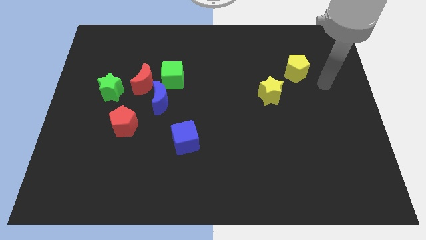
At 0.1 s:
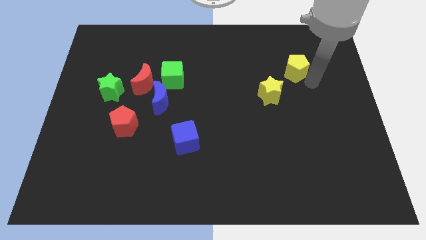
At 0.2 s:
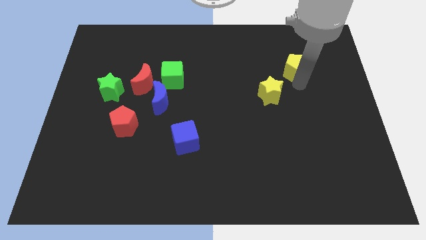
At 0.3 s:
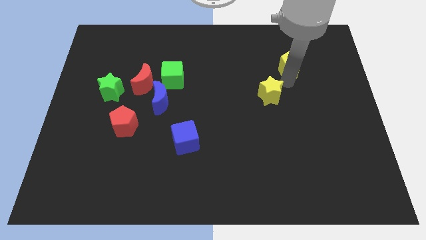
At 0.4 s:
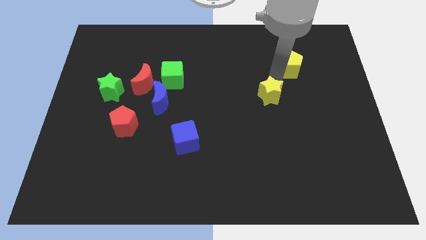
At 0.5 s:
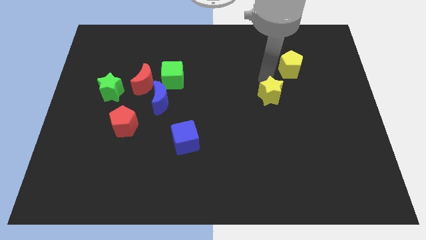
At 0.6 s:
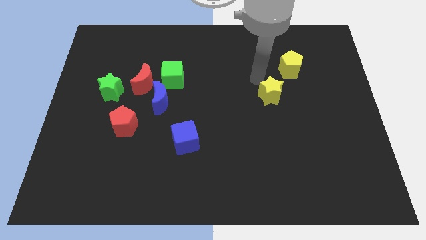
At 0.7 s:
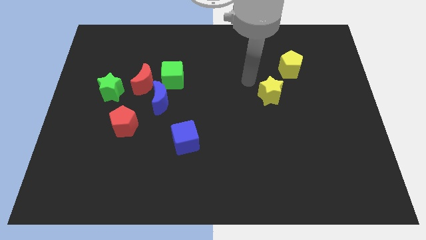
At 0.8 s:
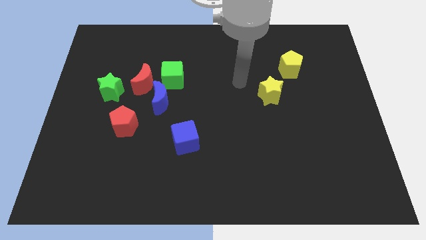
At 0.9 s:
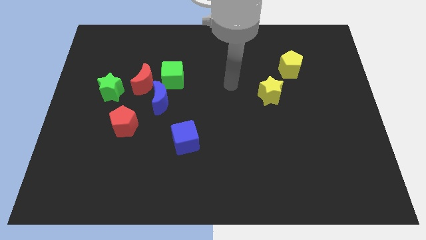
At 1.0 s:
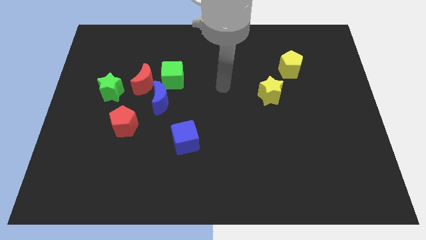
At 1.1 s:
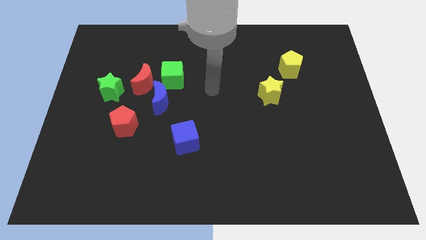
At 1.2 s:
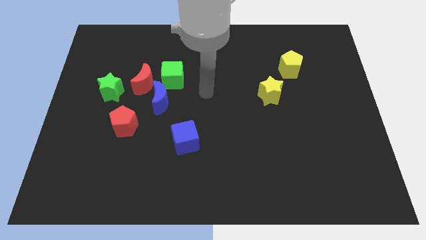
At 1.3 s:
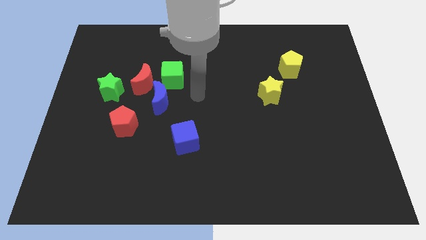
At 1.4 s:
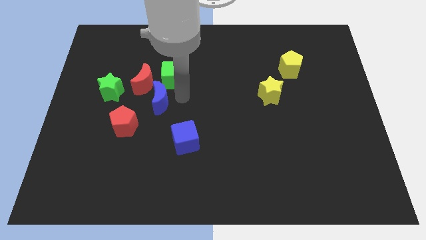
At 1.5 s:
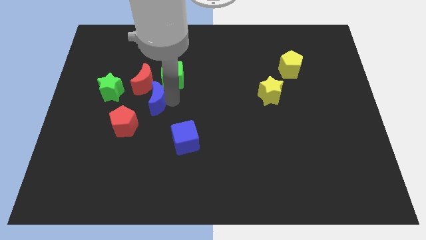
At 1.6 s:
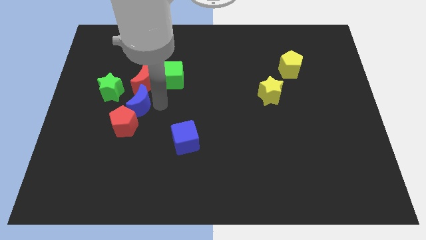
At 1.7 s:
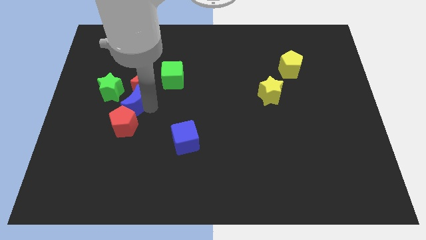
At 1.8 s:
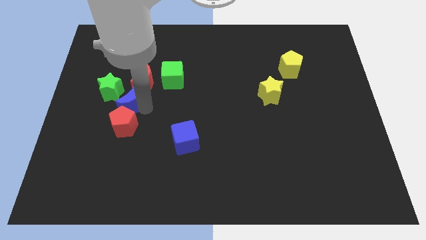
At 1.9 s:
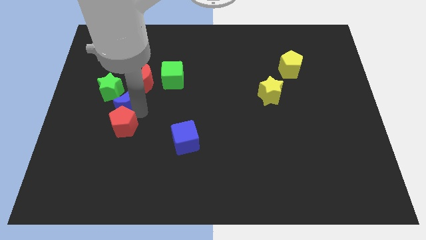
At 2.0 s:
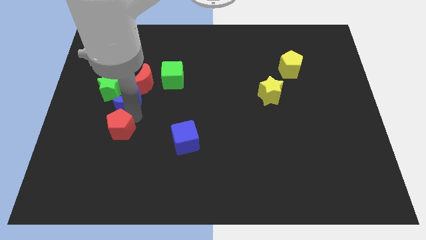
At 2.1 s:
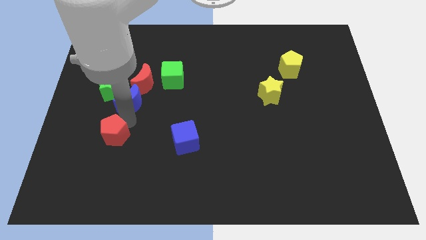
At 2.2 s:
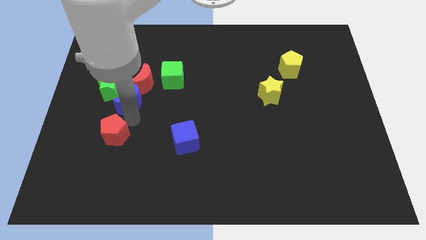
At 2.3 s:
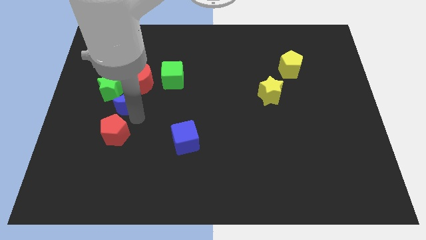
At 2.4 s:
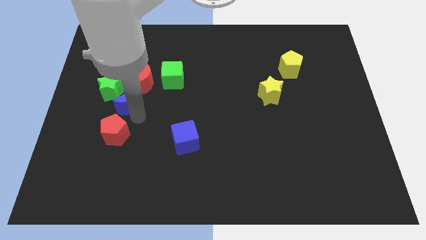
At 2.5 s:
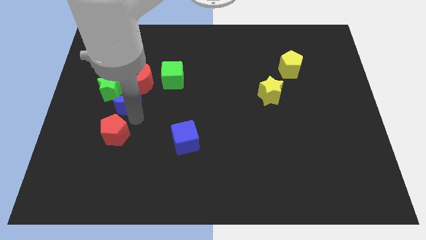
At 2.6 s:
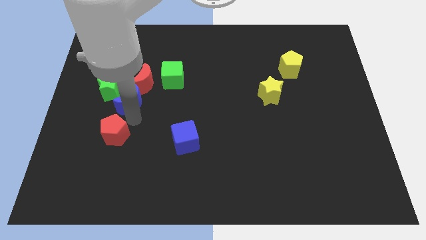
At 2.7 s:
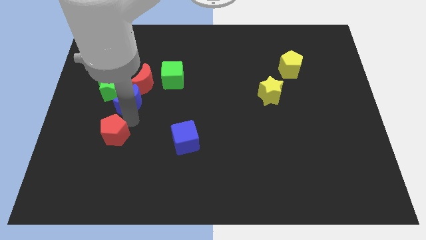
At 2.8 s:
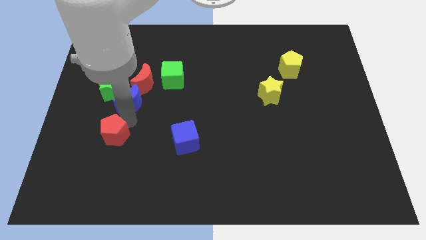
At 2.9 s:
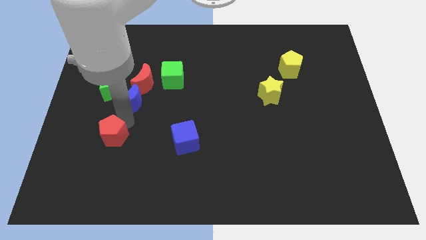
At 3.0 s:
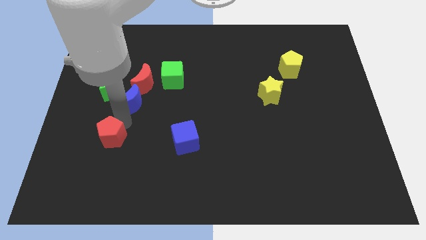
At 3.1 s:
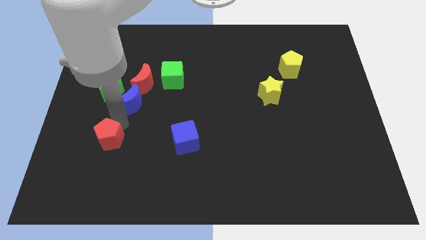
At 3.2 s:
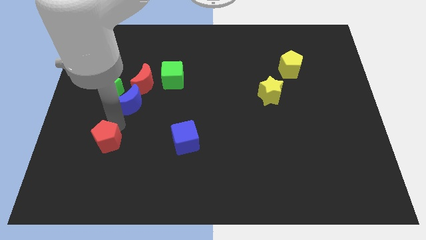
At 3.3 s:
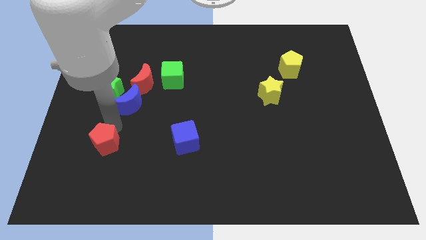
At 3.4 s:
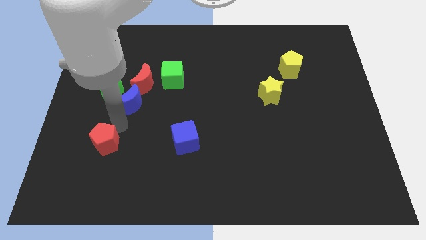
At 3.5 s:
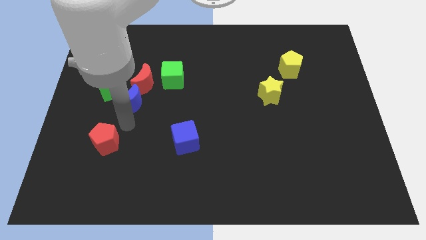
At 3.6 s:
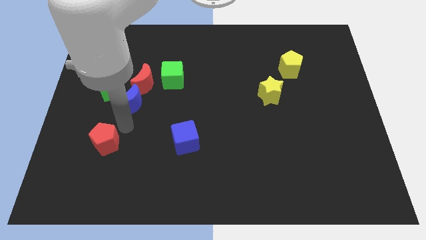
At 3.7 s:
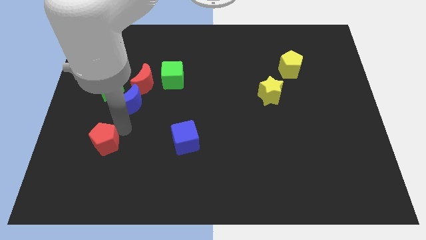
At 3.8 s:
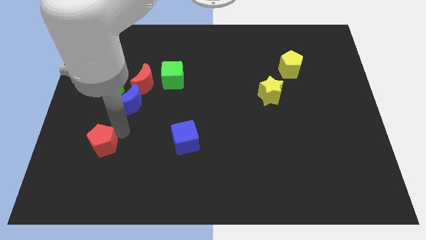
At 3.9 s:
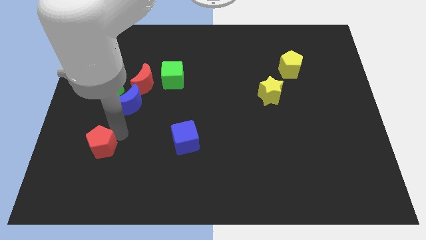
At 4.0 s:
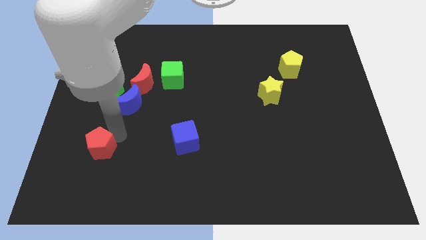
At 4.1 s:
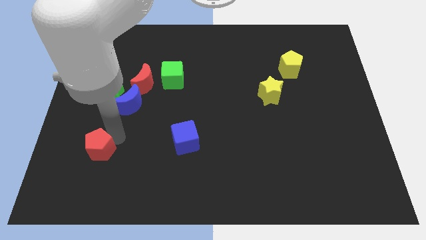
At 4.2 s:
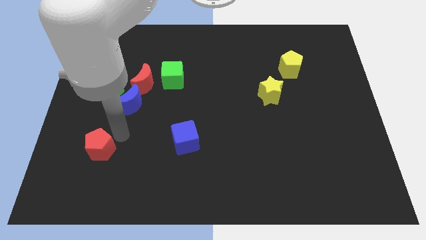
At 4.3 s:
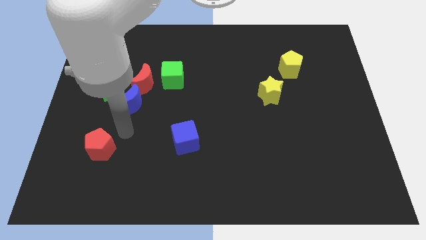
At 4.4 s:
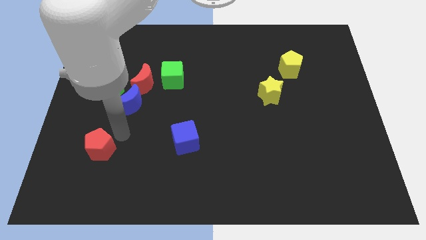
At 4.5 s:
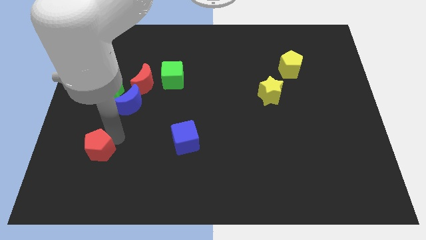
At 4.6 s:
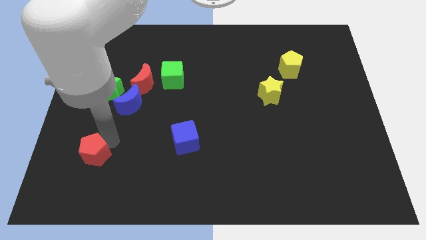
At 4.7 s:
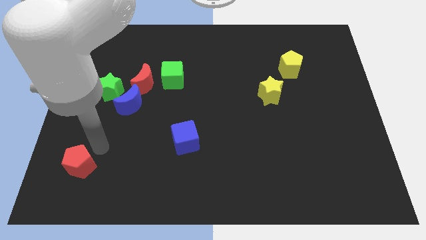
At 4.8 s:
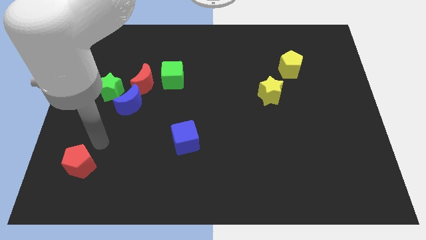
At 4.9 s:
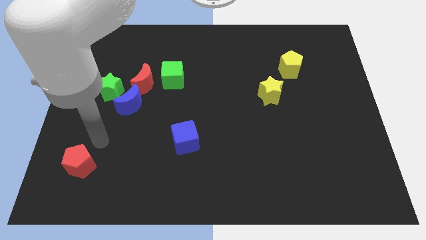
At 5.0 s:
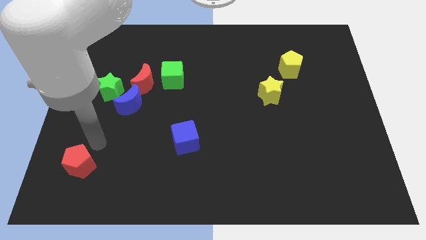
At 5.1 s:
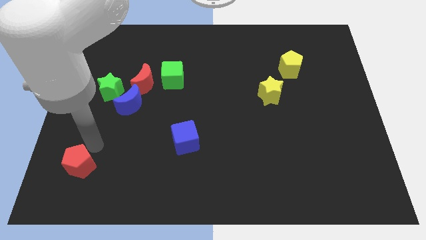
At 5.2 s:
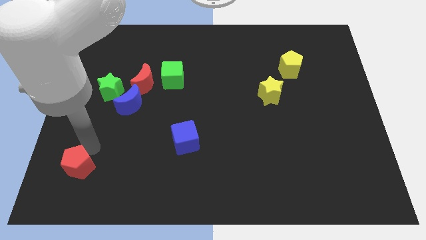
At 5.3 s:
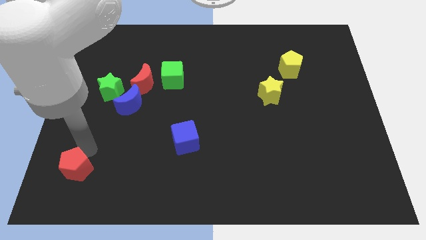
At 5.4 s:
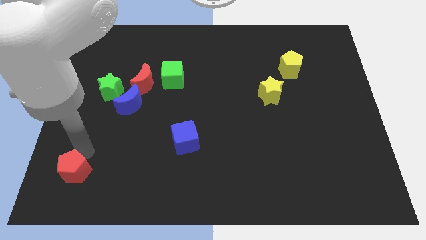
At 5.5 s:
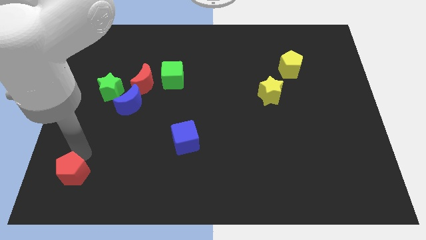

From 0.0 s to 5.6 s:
push the red pentagon to the bottom left corner

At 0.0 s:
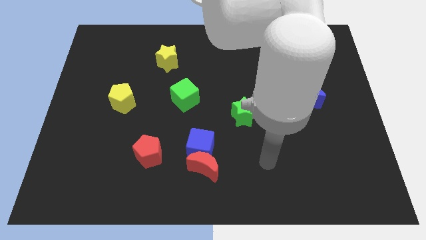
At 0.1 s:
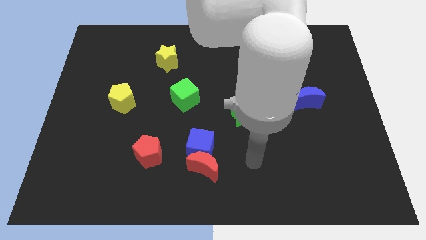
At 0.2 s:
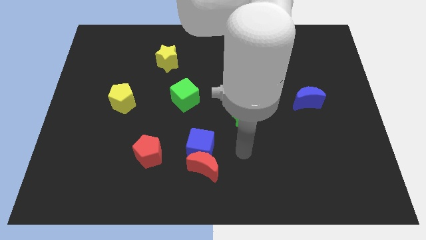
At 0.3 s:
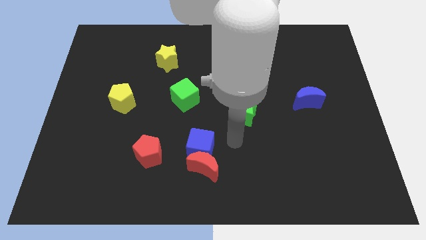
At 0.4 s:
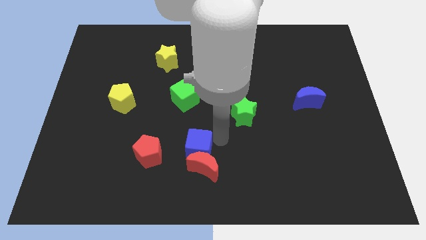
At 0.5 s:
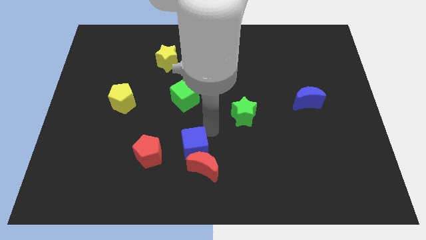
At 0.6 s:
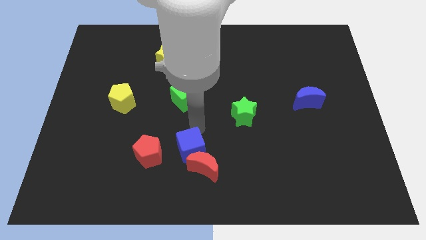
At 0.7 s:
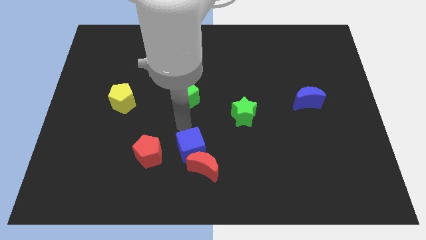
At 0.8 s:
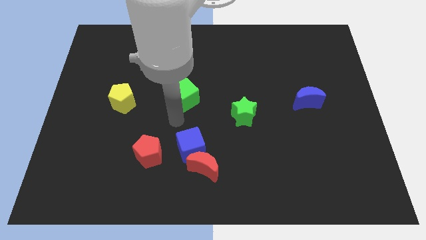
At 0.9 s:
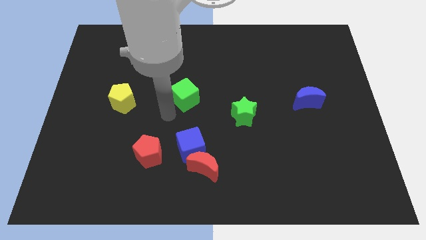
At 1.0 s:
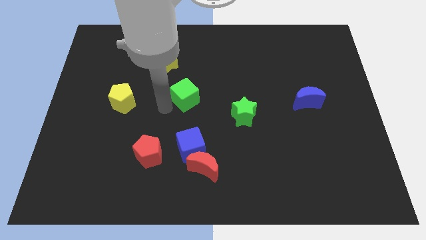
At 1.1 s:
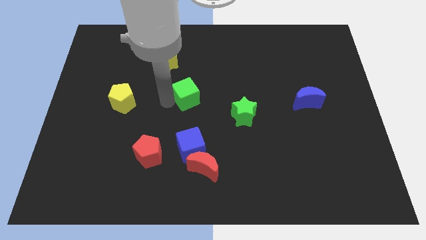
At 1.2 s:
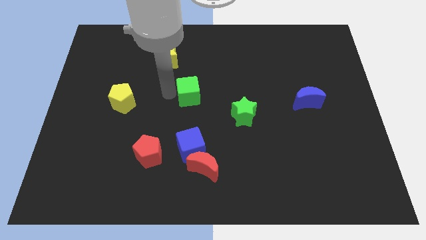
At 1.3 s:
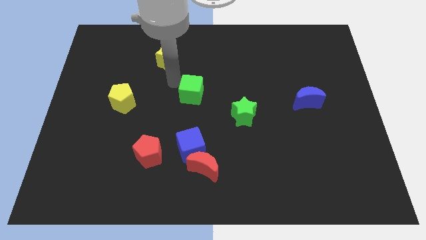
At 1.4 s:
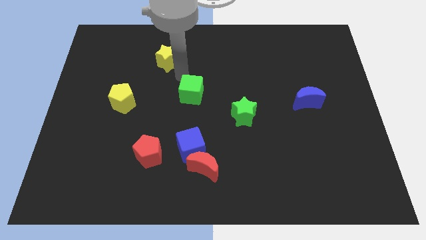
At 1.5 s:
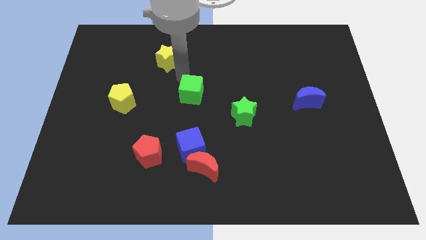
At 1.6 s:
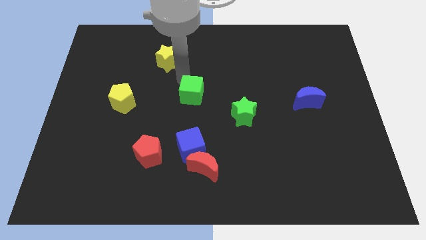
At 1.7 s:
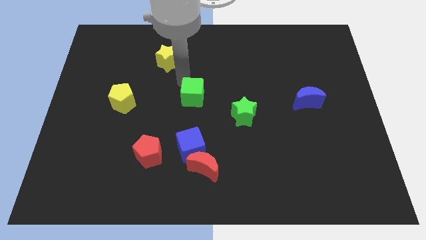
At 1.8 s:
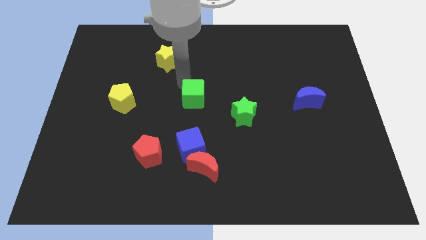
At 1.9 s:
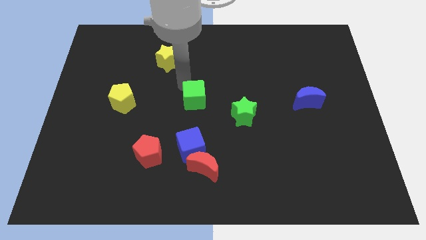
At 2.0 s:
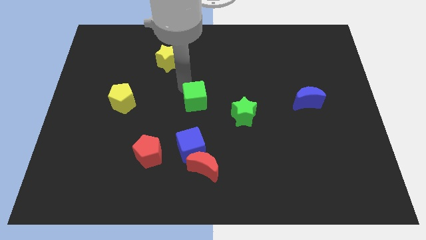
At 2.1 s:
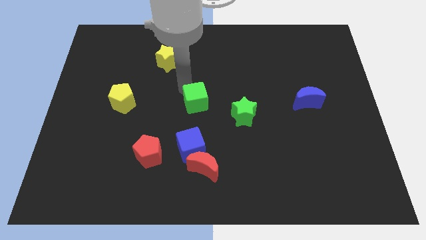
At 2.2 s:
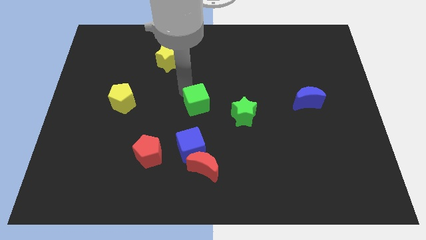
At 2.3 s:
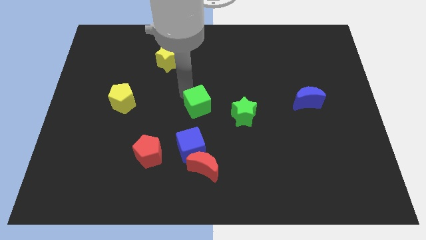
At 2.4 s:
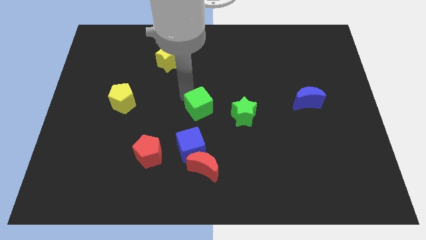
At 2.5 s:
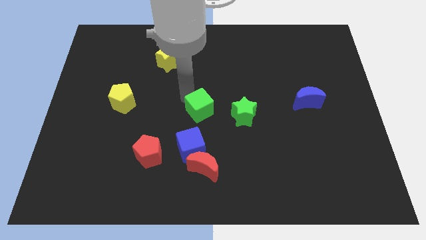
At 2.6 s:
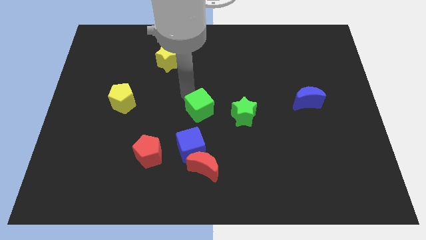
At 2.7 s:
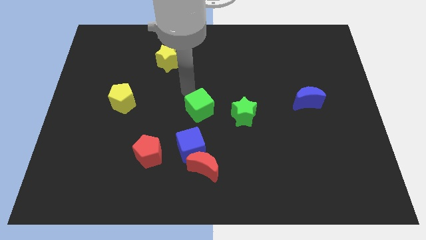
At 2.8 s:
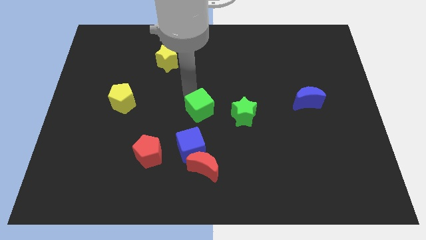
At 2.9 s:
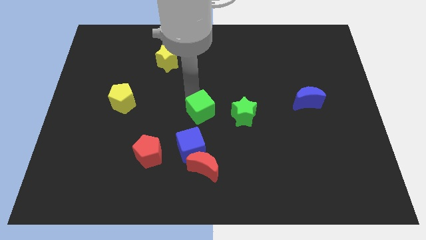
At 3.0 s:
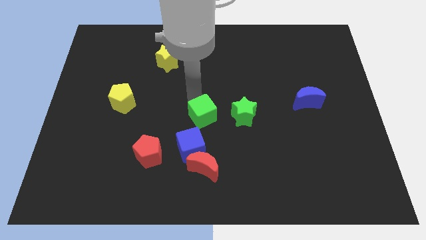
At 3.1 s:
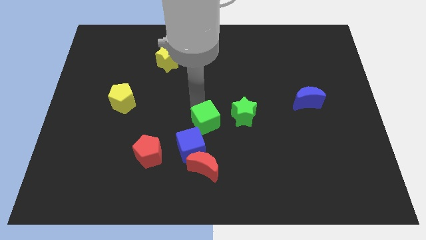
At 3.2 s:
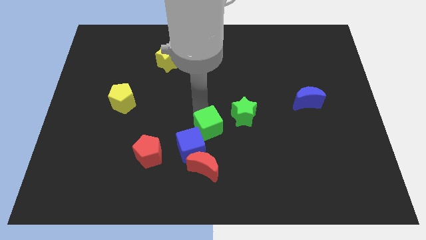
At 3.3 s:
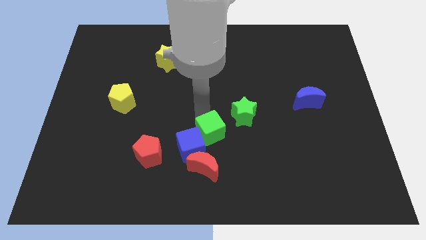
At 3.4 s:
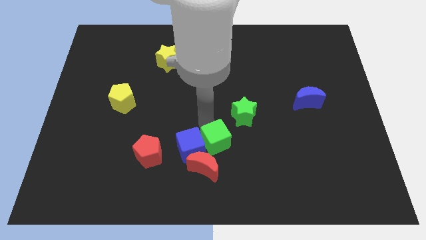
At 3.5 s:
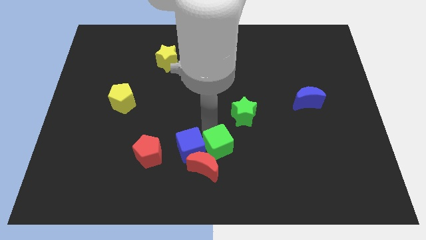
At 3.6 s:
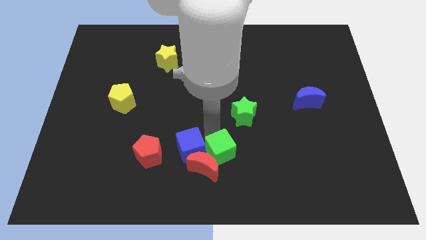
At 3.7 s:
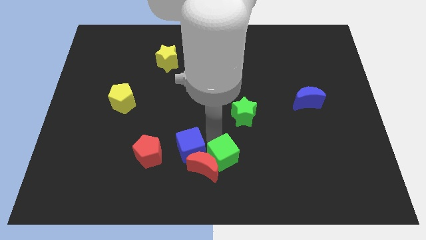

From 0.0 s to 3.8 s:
put the green cube to the bottom side
